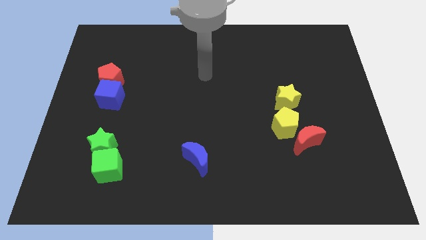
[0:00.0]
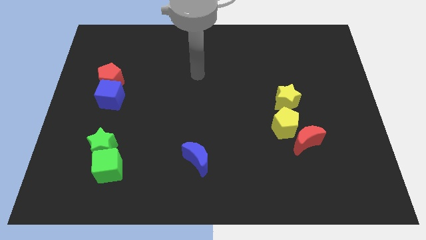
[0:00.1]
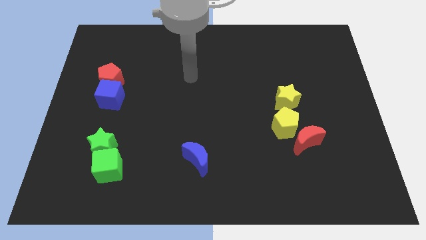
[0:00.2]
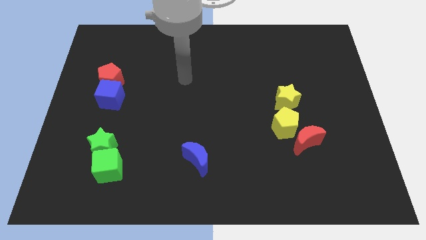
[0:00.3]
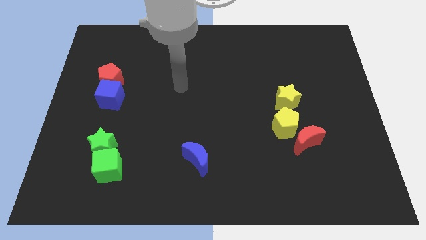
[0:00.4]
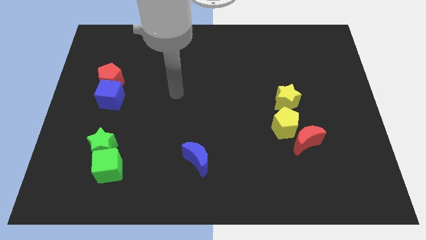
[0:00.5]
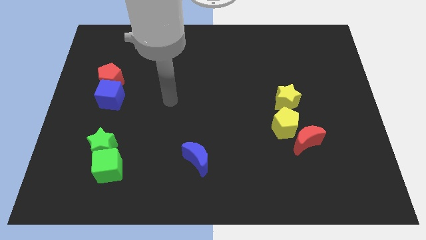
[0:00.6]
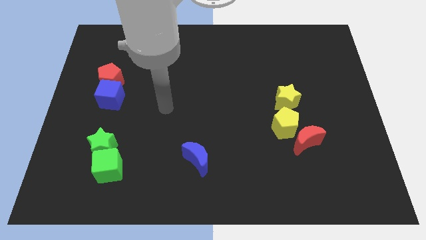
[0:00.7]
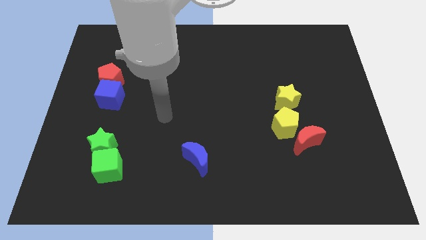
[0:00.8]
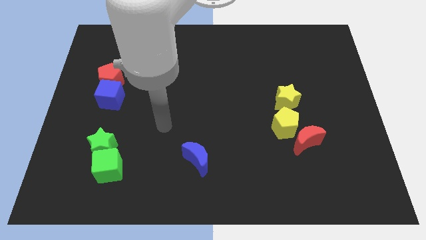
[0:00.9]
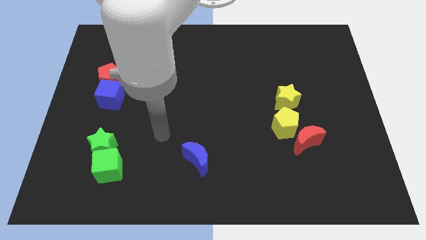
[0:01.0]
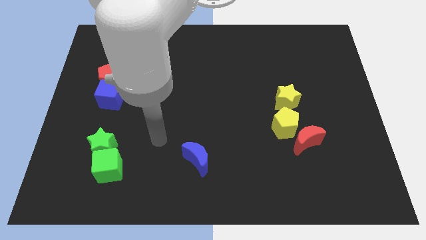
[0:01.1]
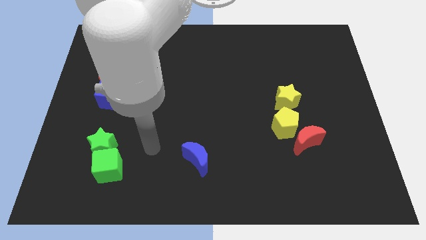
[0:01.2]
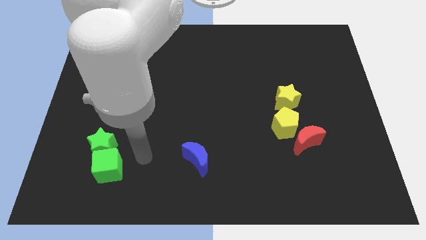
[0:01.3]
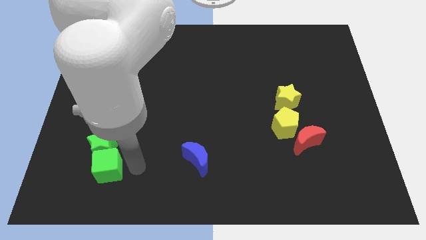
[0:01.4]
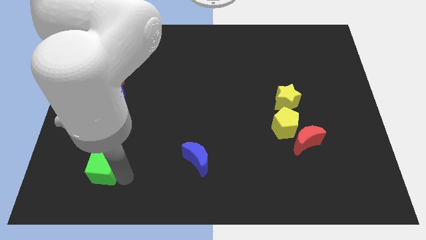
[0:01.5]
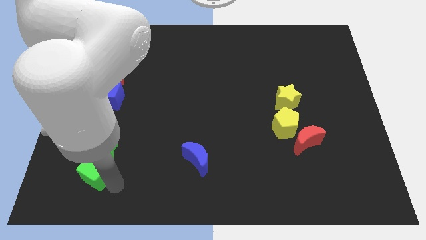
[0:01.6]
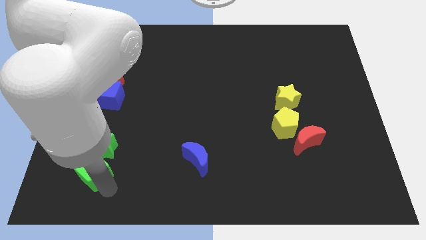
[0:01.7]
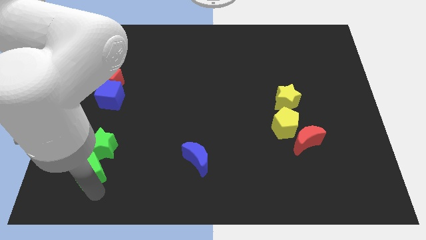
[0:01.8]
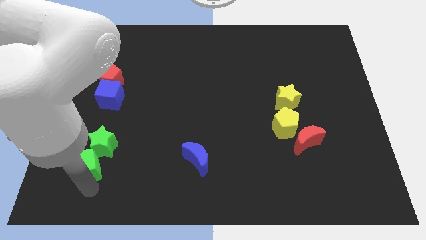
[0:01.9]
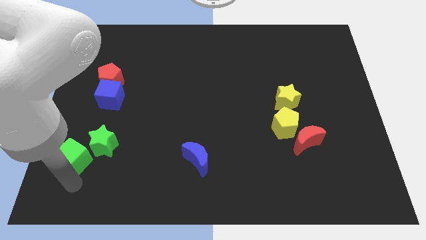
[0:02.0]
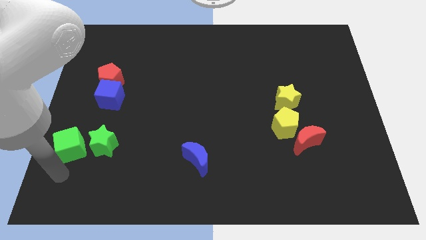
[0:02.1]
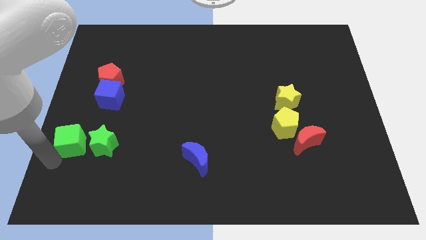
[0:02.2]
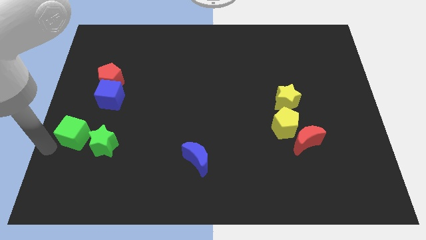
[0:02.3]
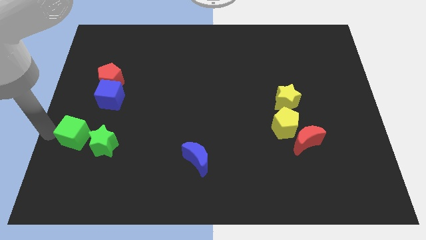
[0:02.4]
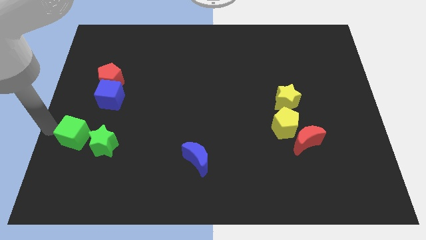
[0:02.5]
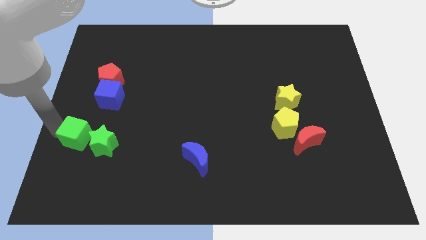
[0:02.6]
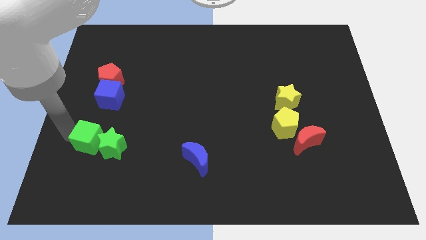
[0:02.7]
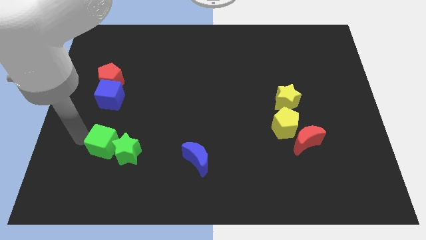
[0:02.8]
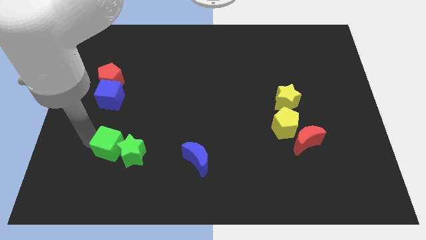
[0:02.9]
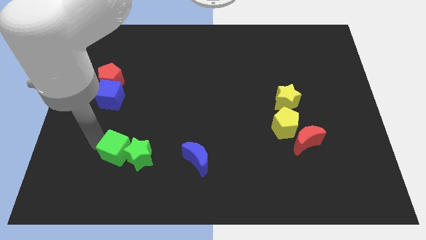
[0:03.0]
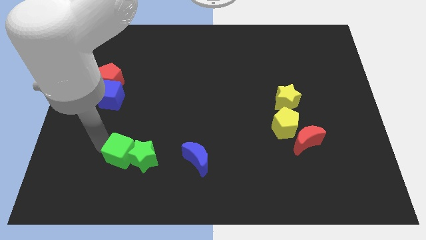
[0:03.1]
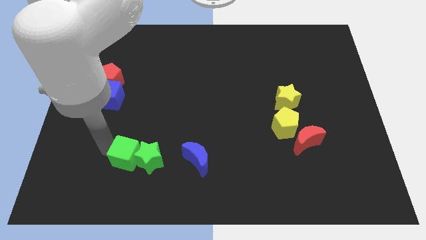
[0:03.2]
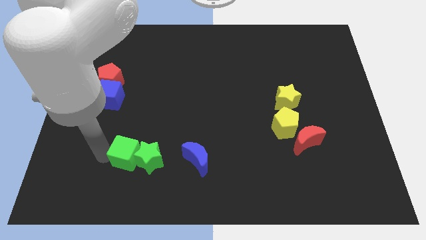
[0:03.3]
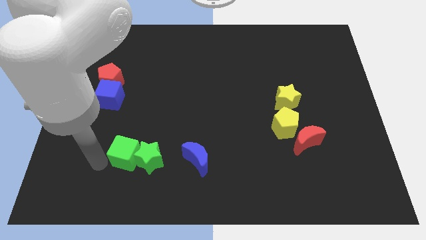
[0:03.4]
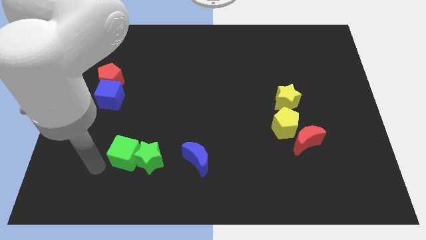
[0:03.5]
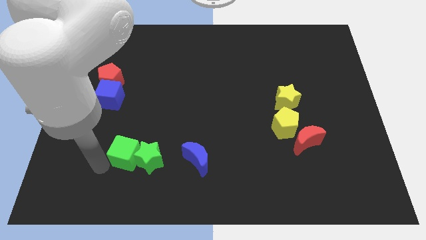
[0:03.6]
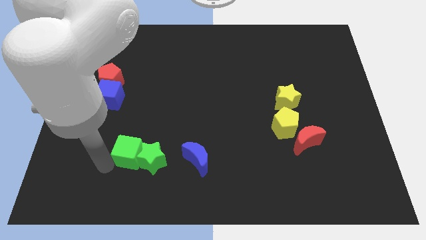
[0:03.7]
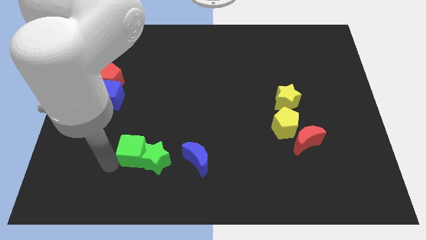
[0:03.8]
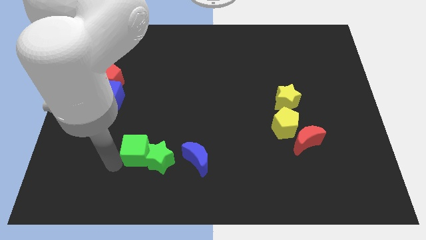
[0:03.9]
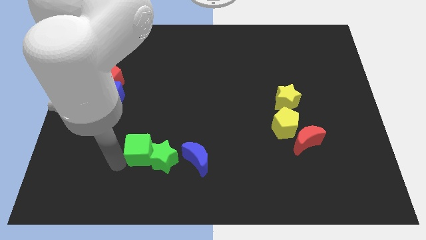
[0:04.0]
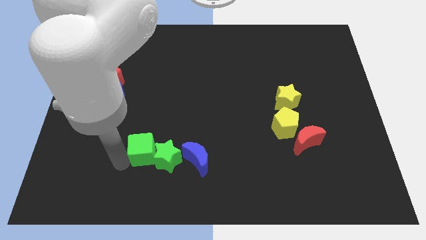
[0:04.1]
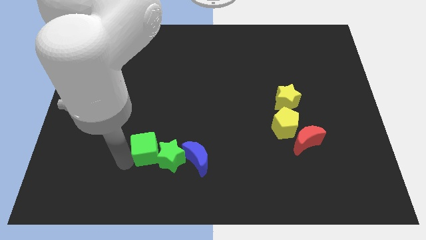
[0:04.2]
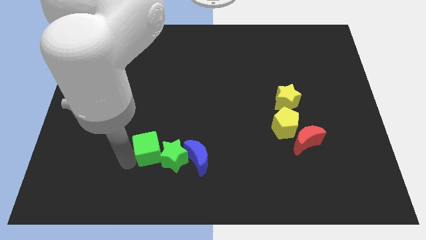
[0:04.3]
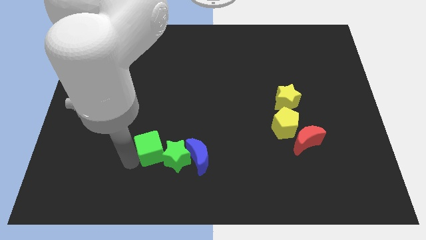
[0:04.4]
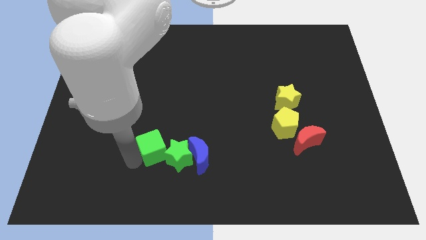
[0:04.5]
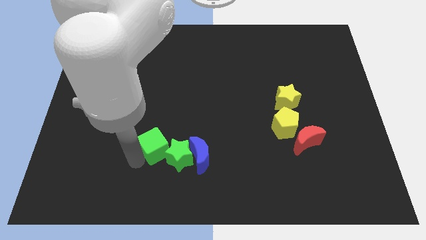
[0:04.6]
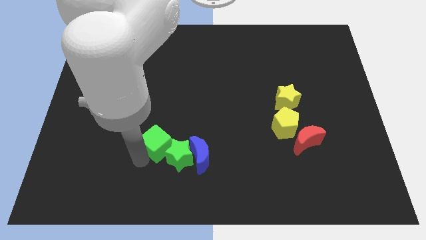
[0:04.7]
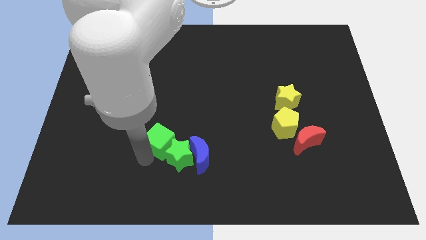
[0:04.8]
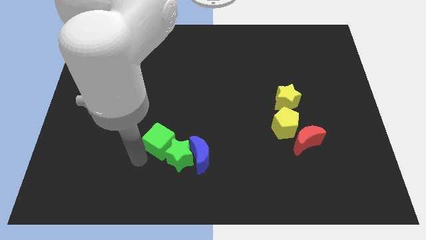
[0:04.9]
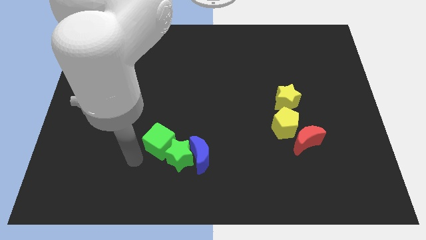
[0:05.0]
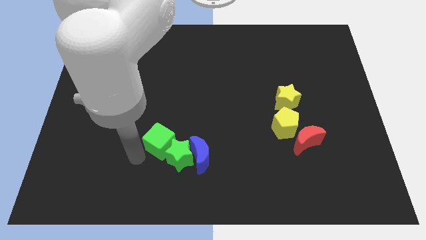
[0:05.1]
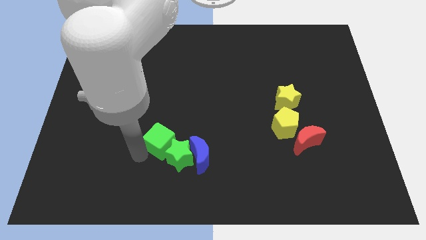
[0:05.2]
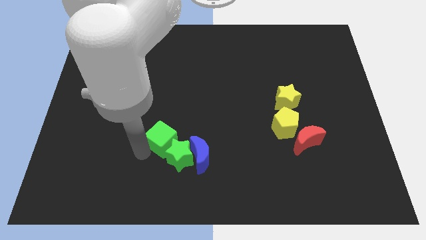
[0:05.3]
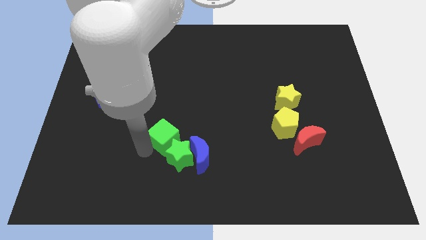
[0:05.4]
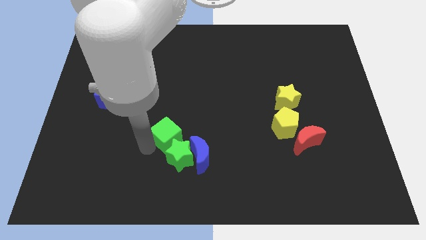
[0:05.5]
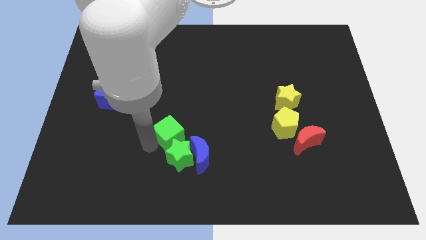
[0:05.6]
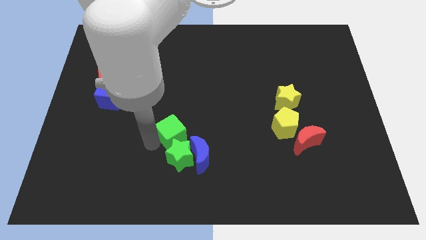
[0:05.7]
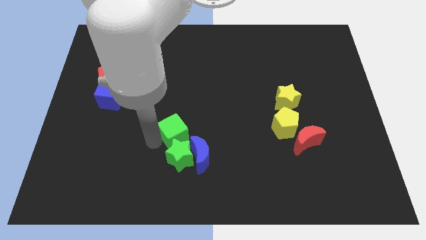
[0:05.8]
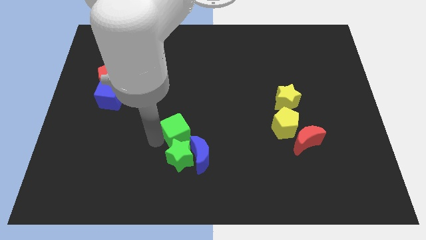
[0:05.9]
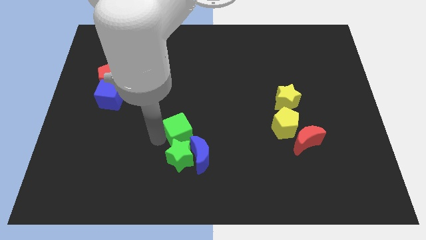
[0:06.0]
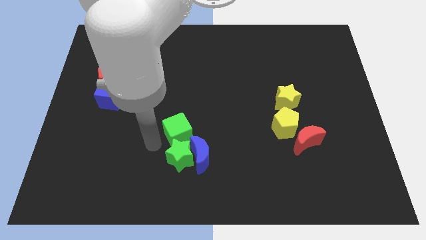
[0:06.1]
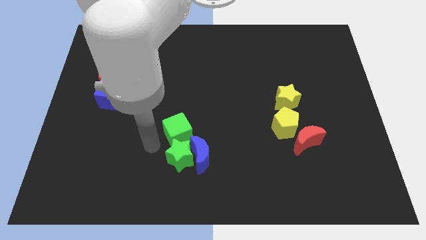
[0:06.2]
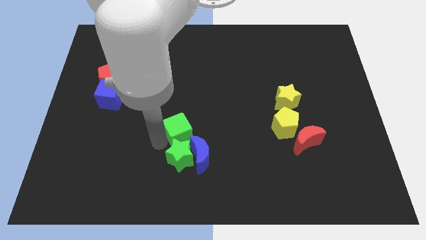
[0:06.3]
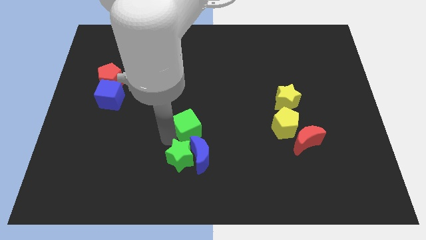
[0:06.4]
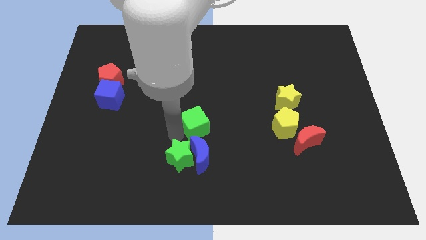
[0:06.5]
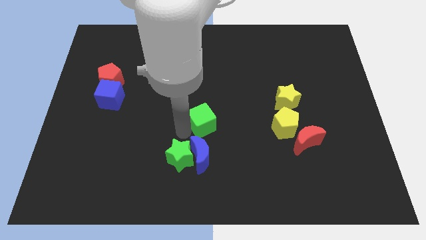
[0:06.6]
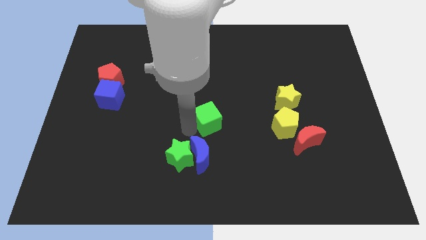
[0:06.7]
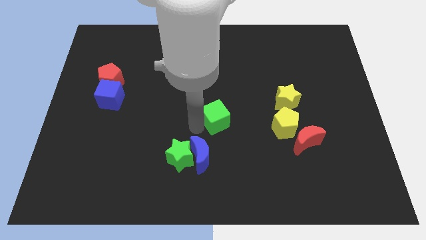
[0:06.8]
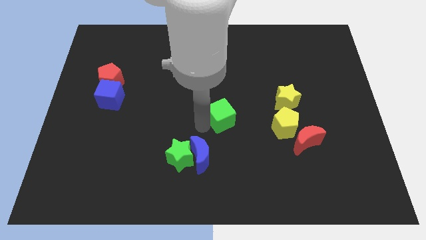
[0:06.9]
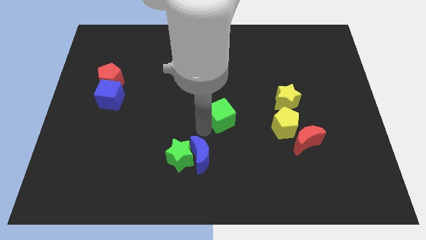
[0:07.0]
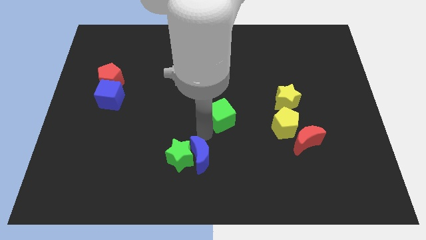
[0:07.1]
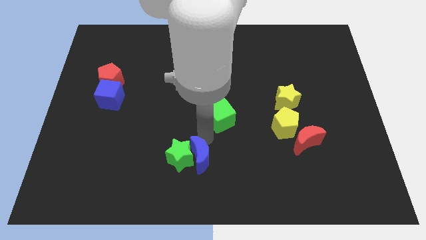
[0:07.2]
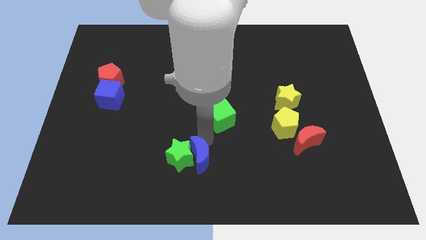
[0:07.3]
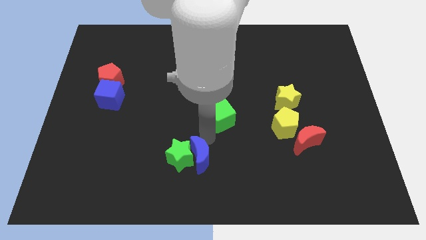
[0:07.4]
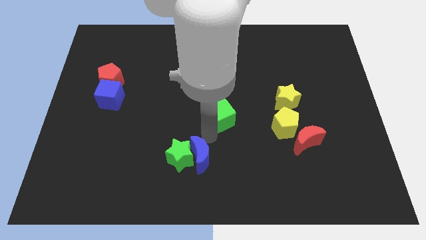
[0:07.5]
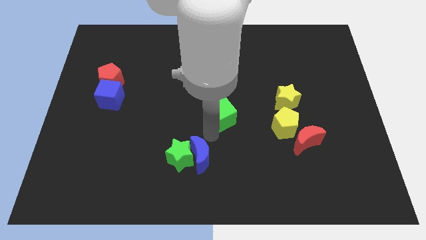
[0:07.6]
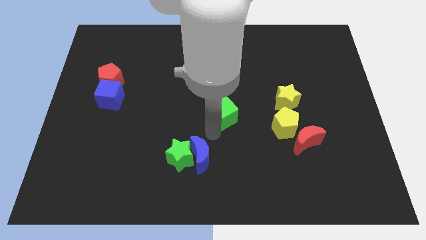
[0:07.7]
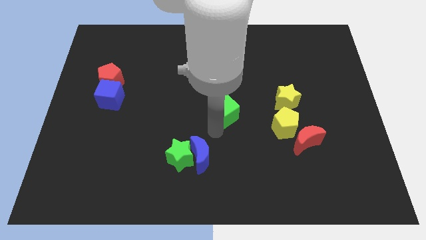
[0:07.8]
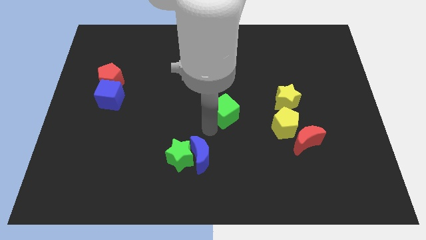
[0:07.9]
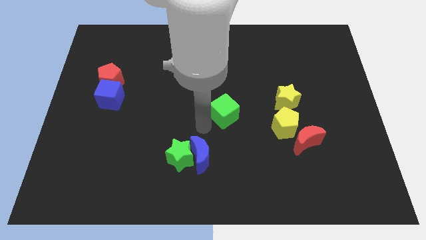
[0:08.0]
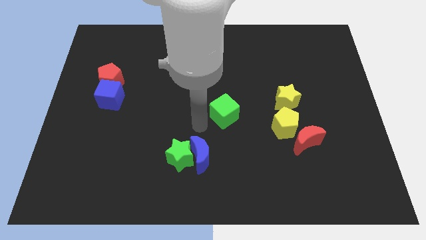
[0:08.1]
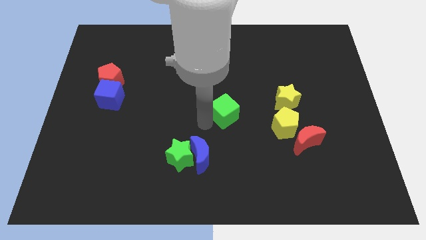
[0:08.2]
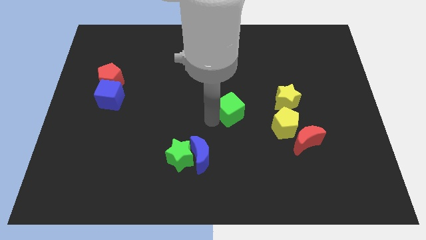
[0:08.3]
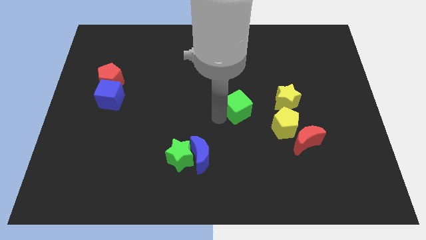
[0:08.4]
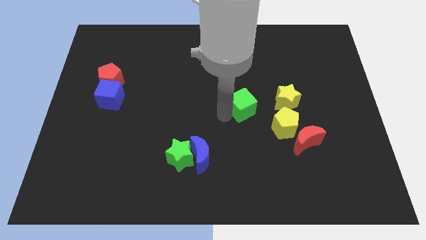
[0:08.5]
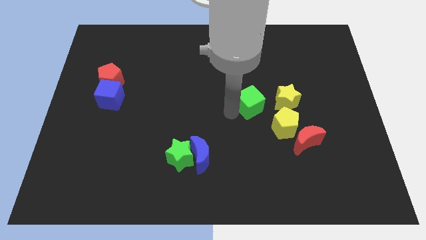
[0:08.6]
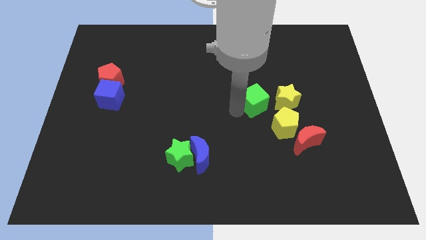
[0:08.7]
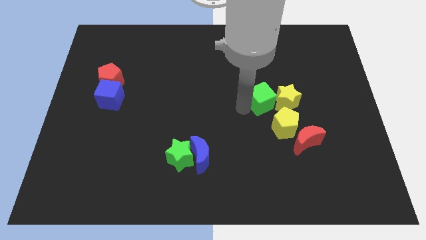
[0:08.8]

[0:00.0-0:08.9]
put the green cube above the yellow pentagon
